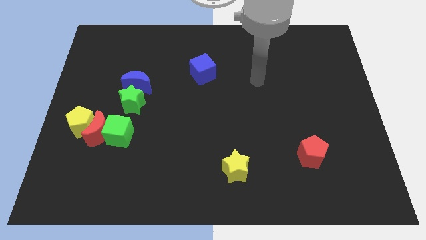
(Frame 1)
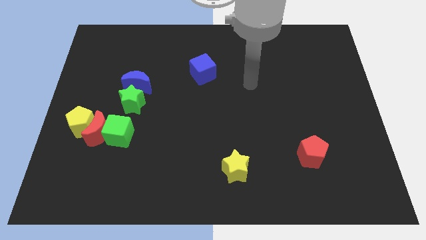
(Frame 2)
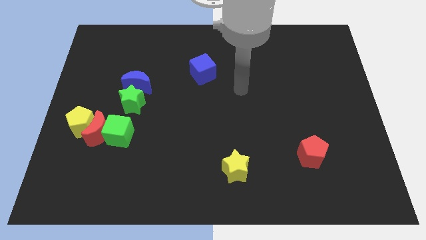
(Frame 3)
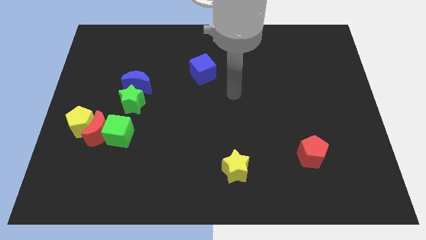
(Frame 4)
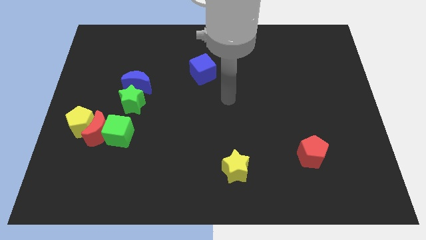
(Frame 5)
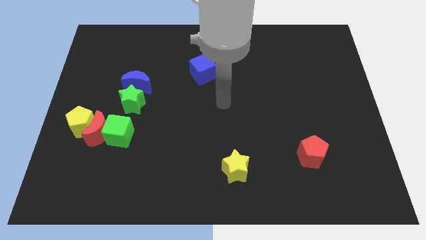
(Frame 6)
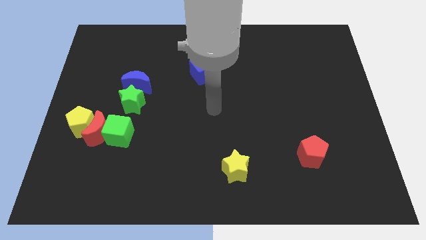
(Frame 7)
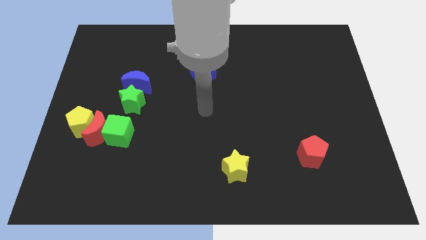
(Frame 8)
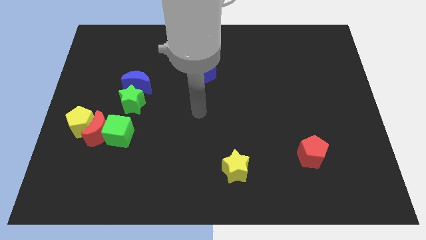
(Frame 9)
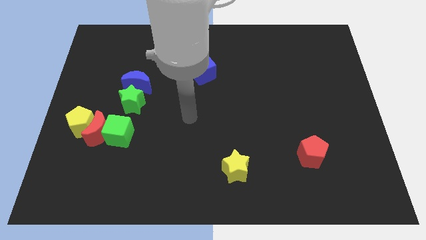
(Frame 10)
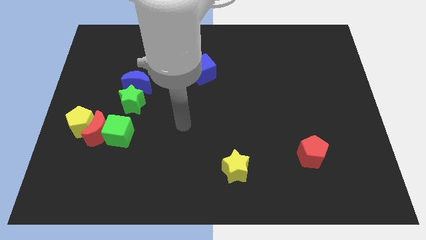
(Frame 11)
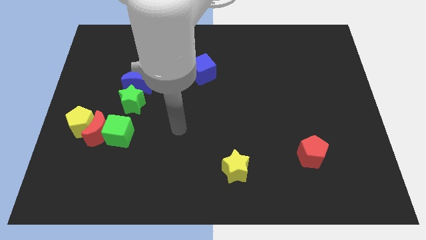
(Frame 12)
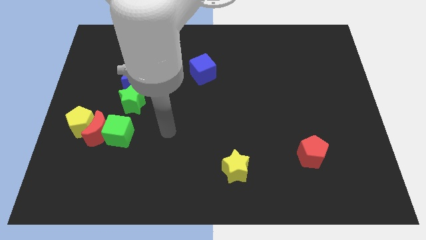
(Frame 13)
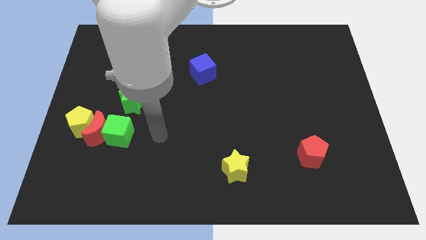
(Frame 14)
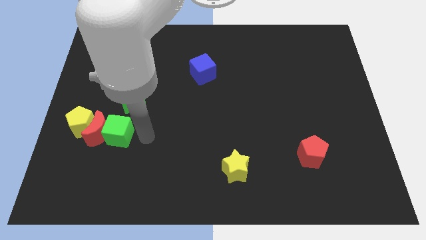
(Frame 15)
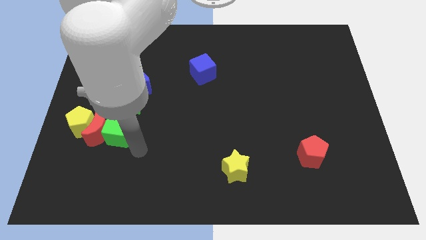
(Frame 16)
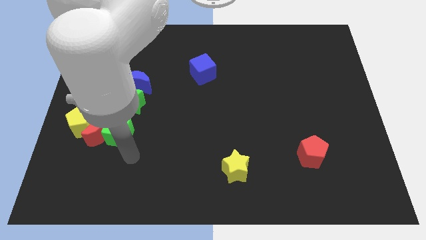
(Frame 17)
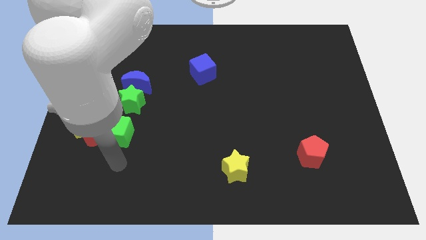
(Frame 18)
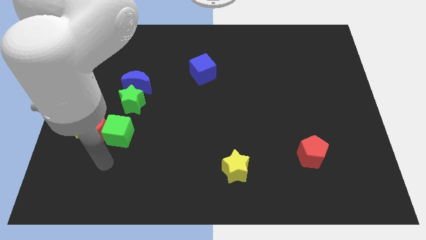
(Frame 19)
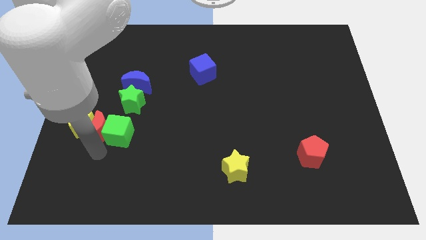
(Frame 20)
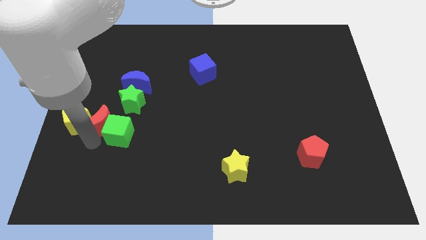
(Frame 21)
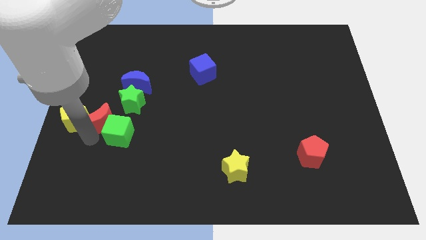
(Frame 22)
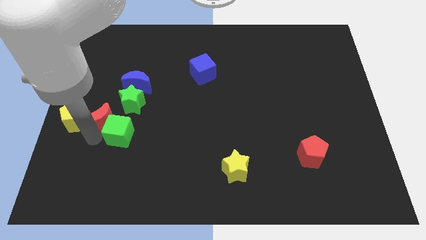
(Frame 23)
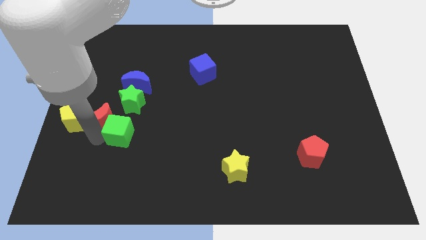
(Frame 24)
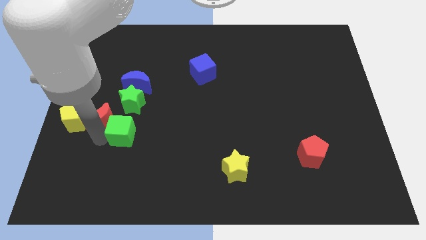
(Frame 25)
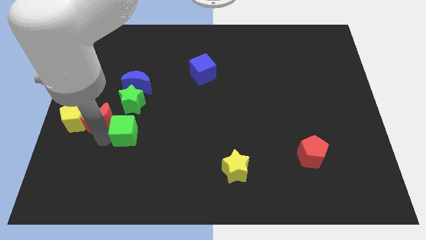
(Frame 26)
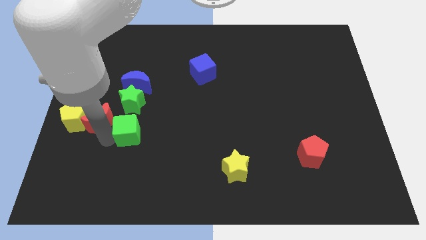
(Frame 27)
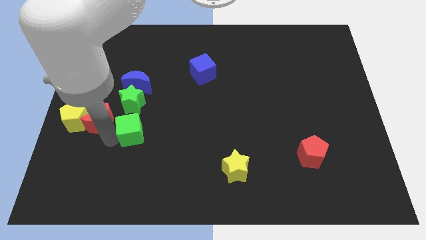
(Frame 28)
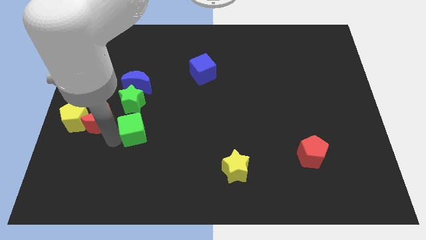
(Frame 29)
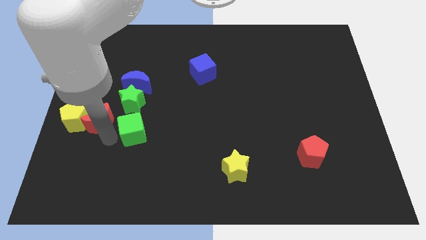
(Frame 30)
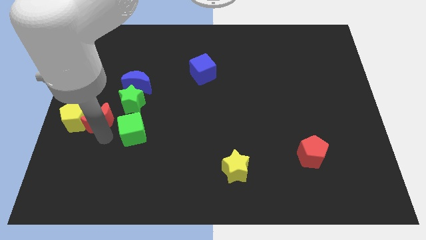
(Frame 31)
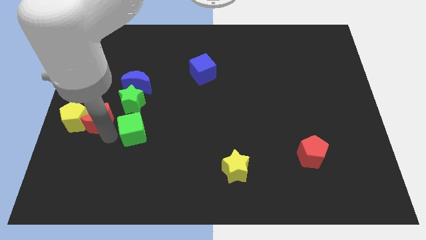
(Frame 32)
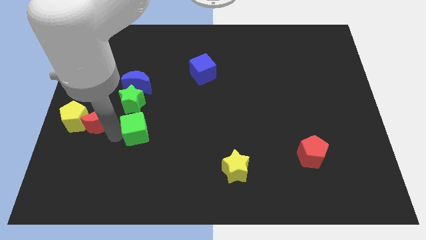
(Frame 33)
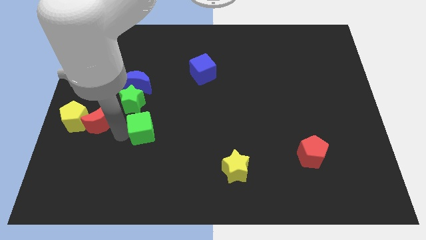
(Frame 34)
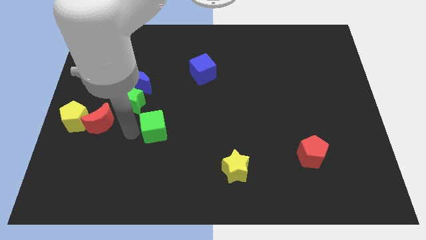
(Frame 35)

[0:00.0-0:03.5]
move the green cube right a bit

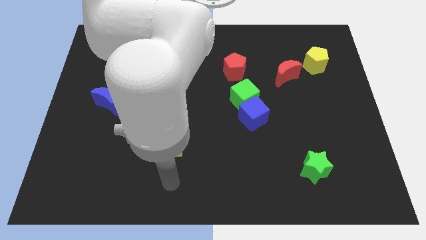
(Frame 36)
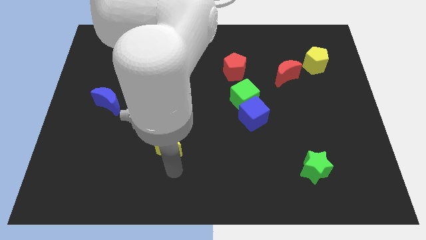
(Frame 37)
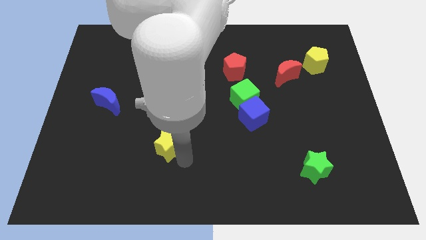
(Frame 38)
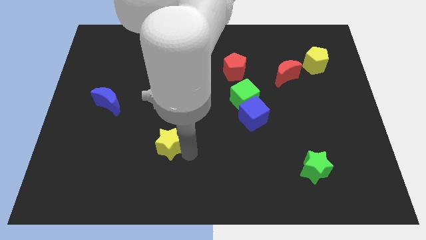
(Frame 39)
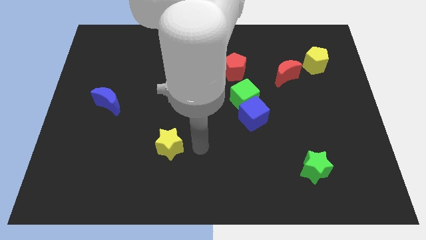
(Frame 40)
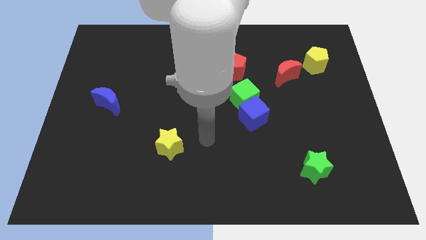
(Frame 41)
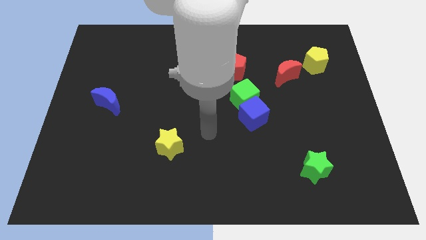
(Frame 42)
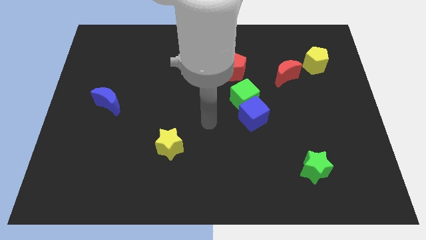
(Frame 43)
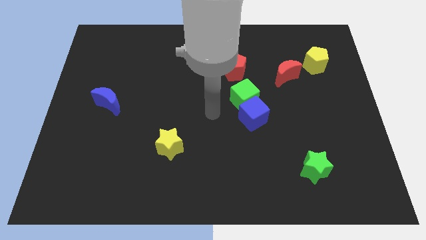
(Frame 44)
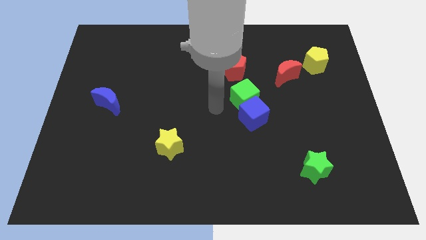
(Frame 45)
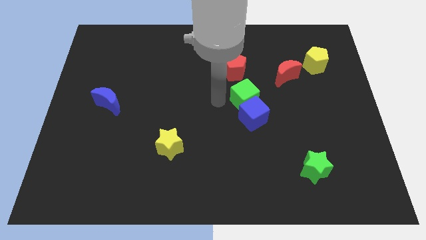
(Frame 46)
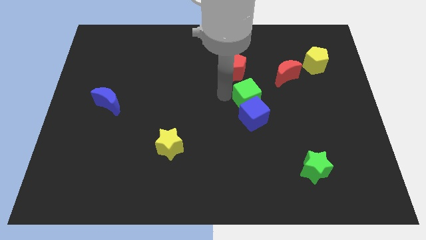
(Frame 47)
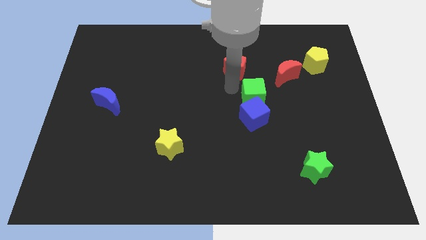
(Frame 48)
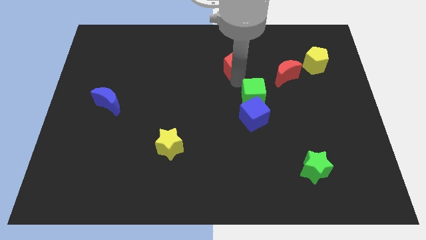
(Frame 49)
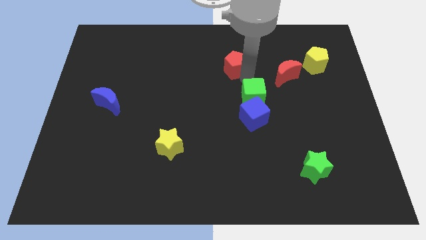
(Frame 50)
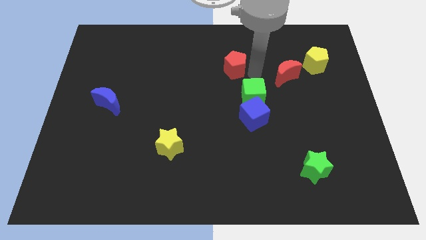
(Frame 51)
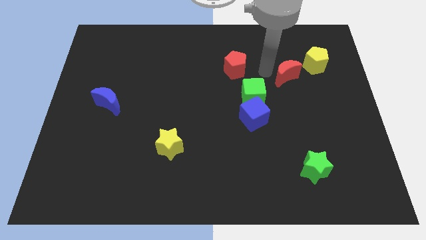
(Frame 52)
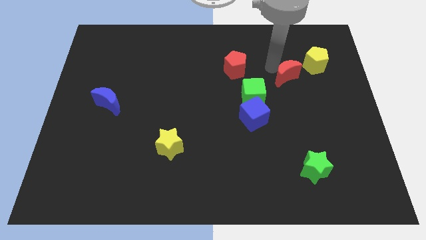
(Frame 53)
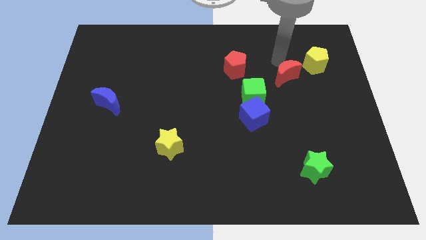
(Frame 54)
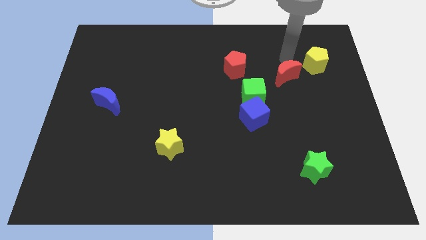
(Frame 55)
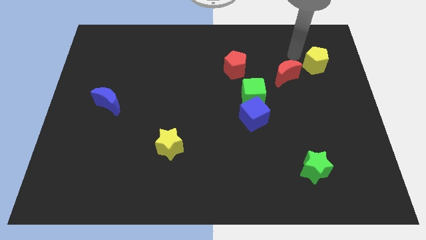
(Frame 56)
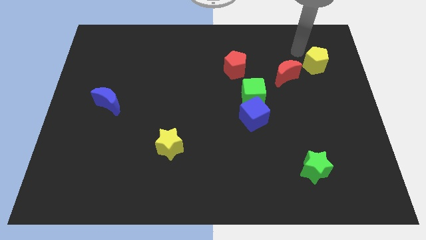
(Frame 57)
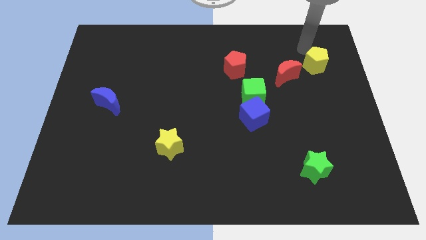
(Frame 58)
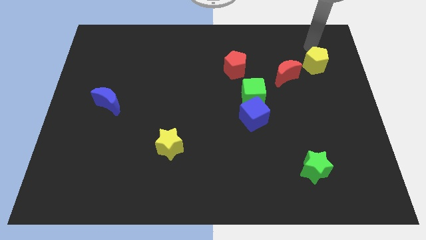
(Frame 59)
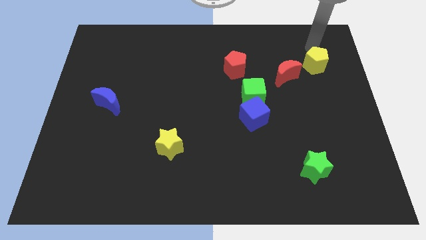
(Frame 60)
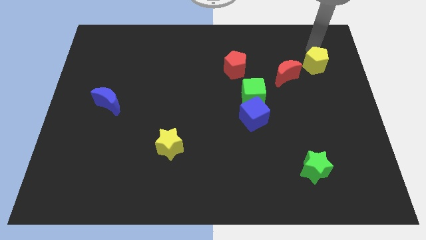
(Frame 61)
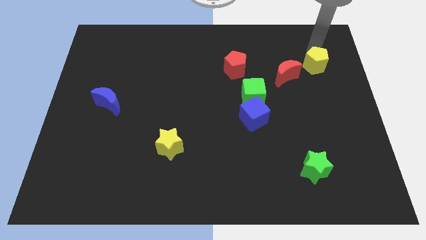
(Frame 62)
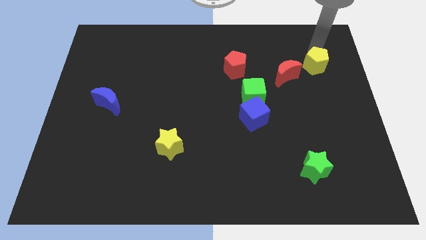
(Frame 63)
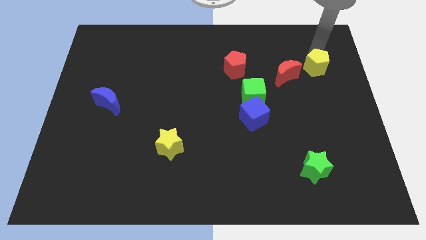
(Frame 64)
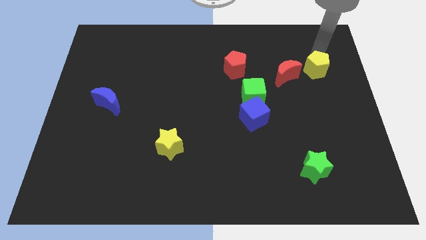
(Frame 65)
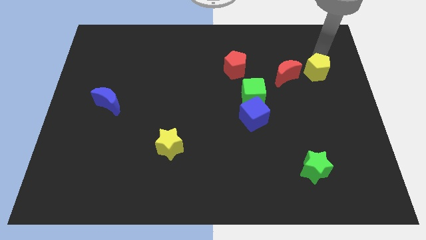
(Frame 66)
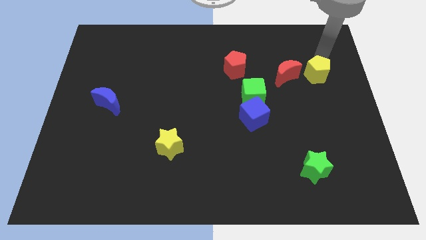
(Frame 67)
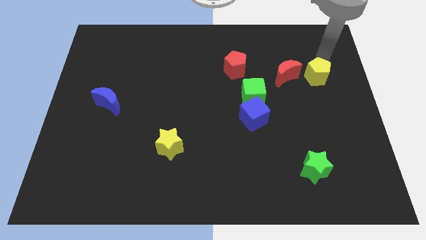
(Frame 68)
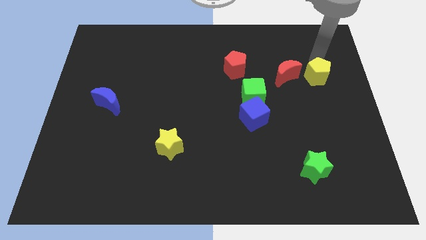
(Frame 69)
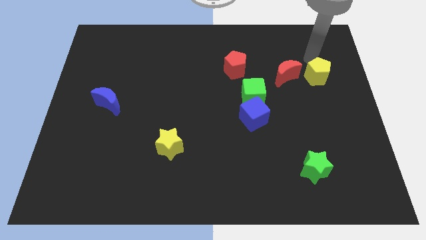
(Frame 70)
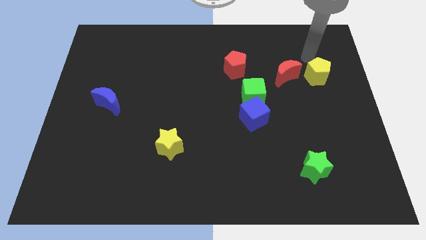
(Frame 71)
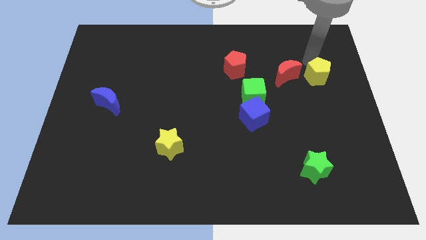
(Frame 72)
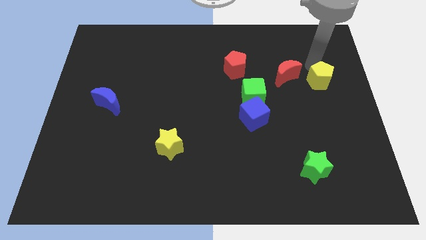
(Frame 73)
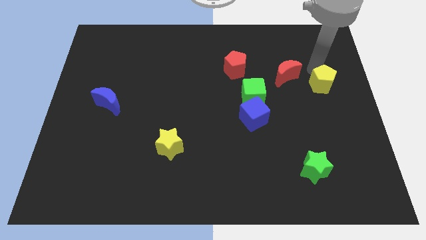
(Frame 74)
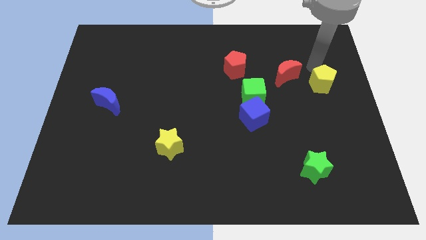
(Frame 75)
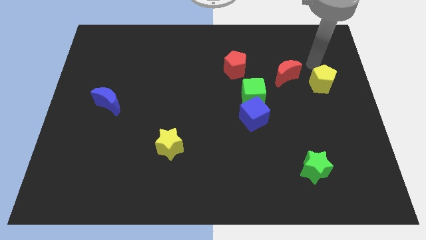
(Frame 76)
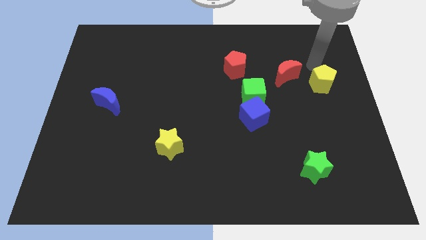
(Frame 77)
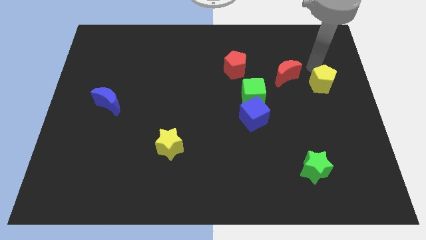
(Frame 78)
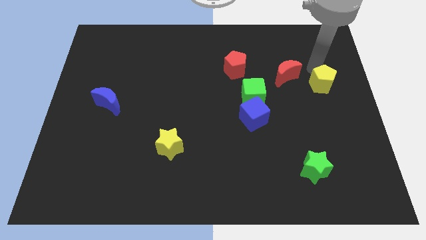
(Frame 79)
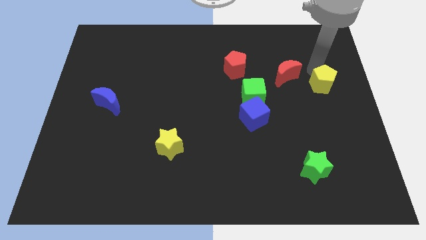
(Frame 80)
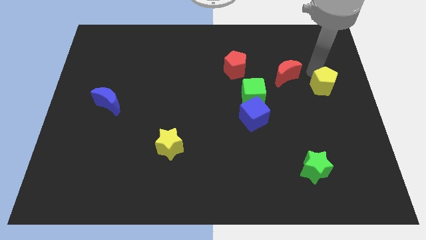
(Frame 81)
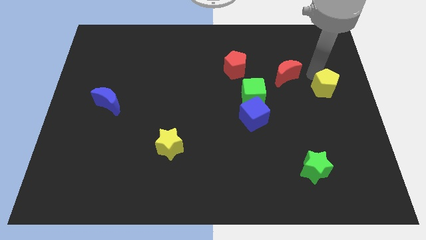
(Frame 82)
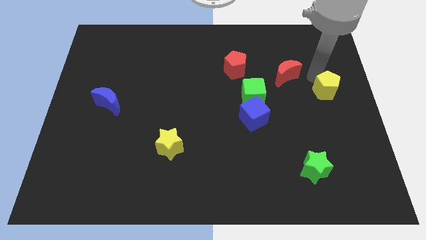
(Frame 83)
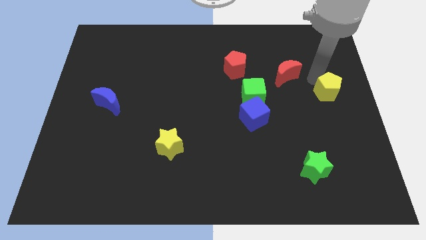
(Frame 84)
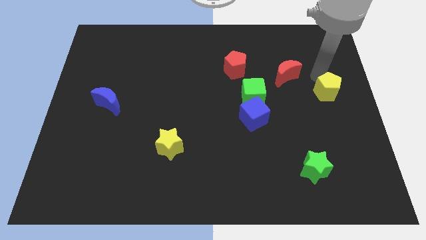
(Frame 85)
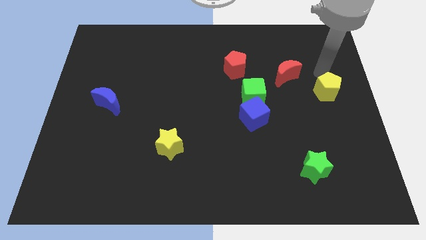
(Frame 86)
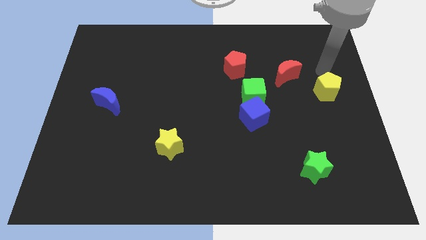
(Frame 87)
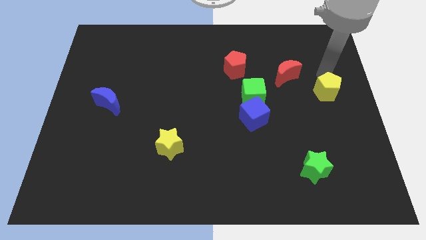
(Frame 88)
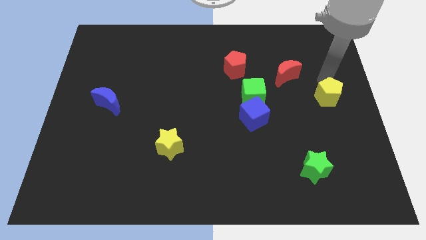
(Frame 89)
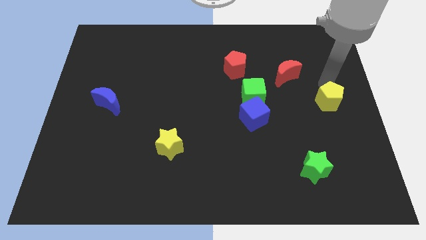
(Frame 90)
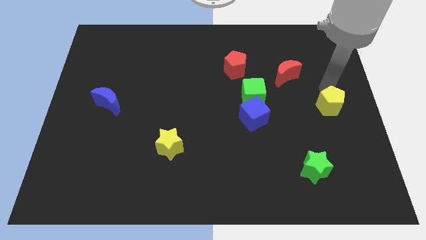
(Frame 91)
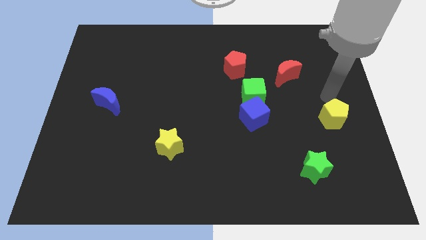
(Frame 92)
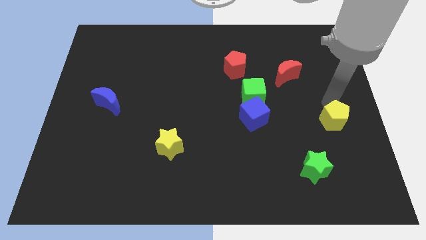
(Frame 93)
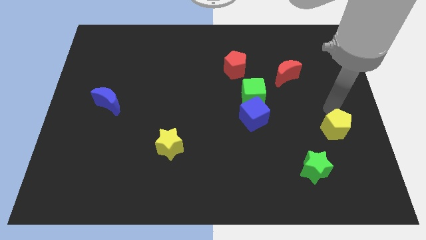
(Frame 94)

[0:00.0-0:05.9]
slide the yellow pentagon down
